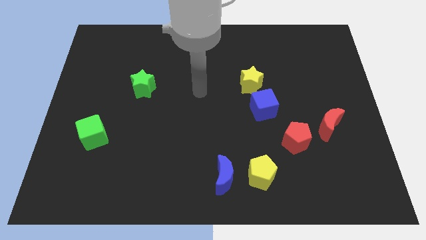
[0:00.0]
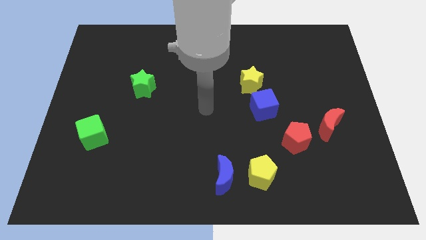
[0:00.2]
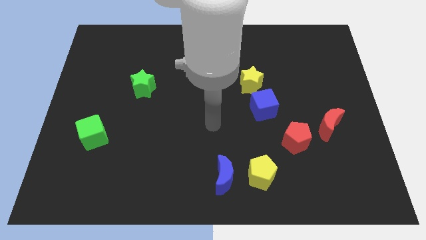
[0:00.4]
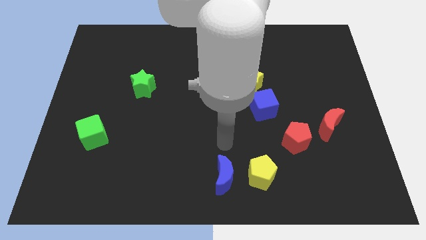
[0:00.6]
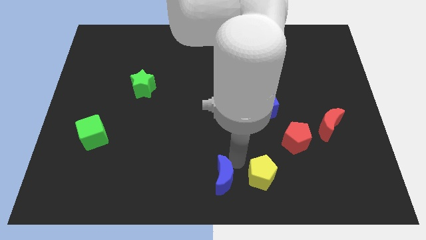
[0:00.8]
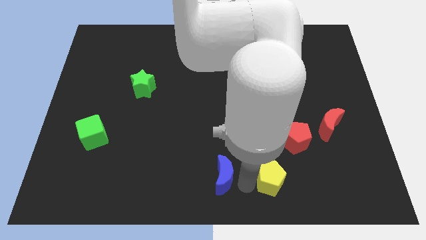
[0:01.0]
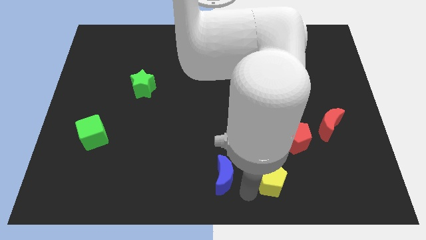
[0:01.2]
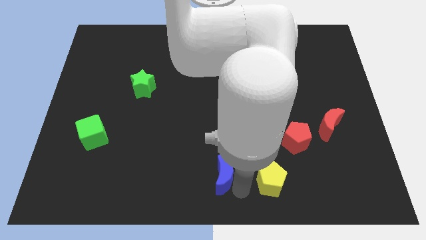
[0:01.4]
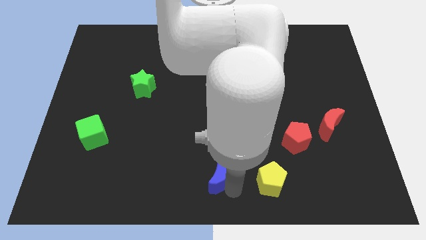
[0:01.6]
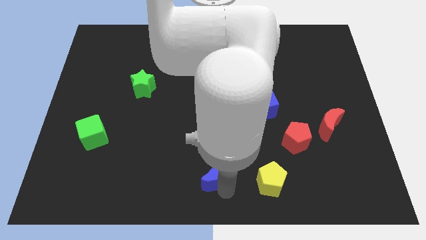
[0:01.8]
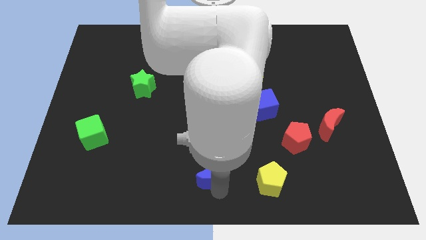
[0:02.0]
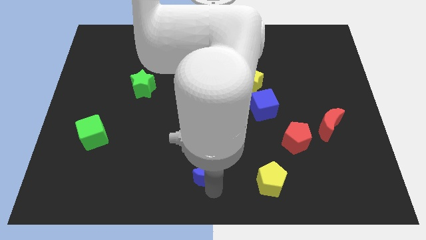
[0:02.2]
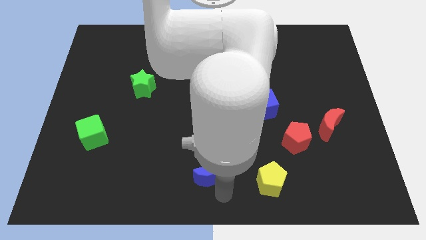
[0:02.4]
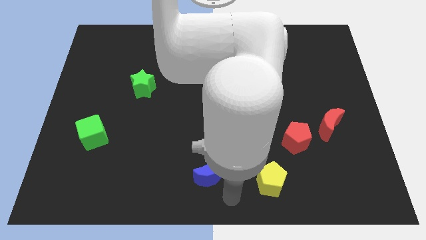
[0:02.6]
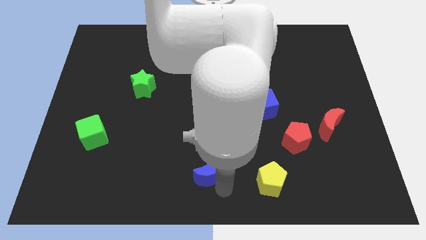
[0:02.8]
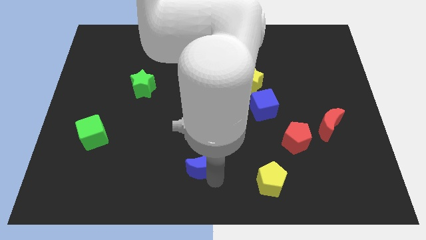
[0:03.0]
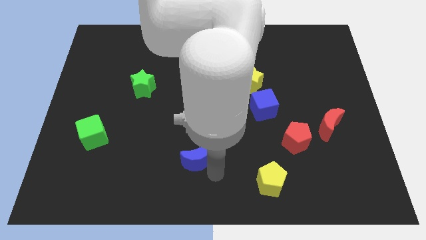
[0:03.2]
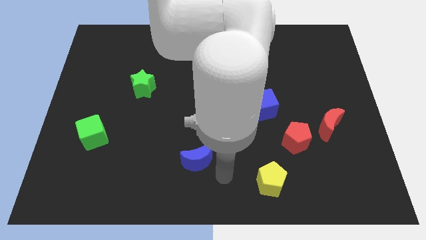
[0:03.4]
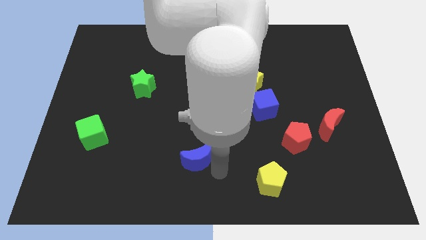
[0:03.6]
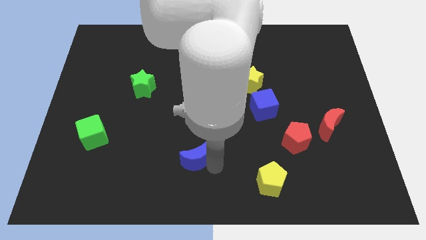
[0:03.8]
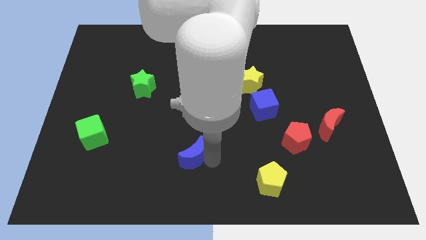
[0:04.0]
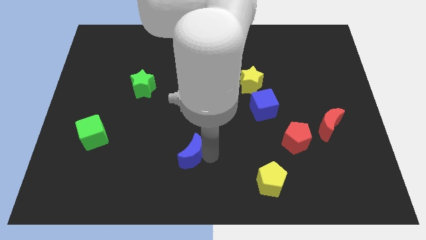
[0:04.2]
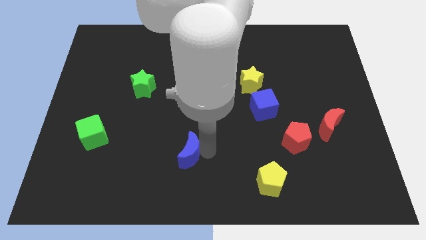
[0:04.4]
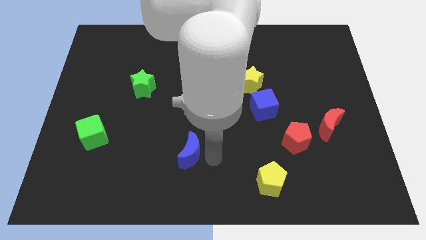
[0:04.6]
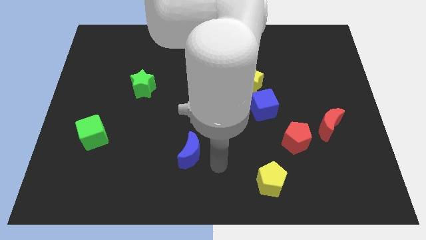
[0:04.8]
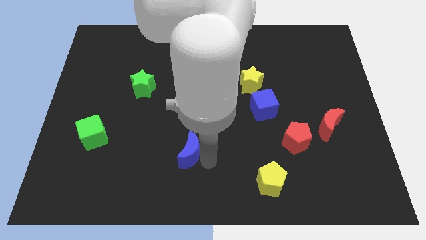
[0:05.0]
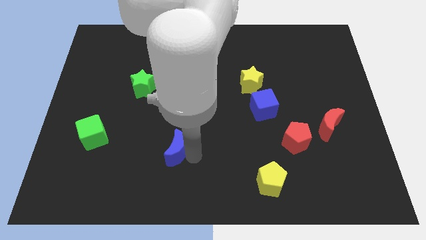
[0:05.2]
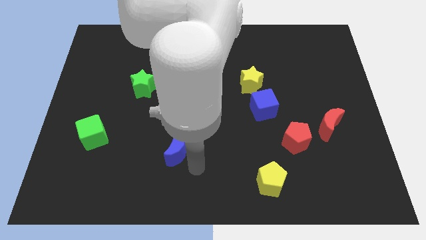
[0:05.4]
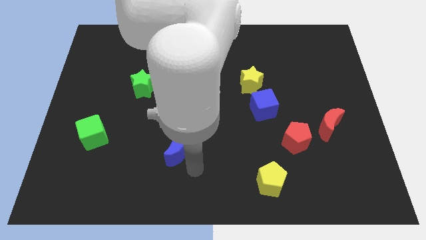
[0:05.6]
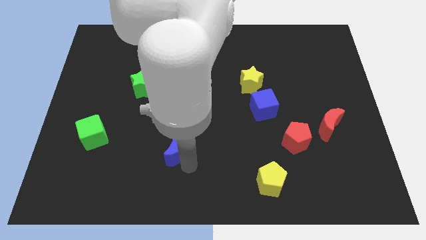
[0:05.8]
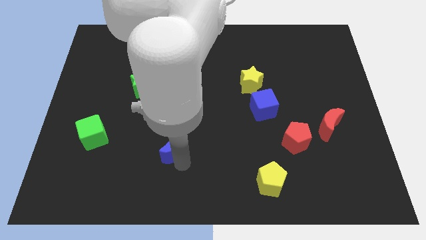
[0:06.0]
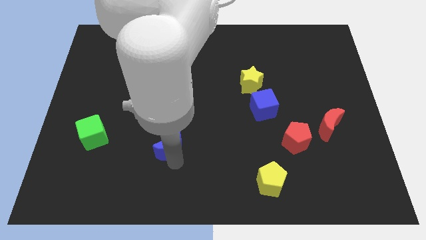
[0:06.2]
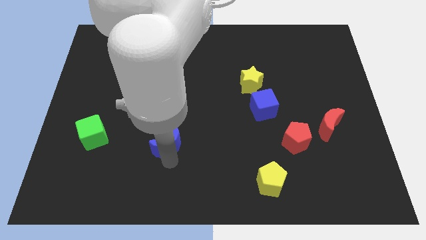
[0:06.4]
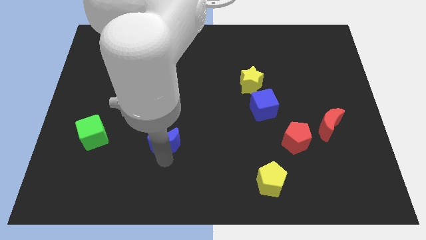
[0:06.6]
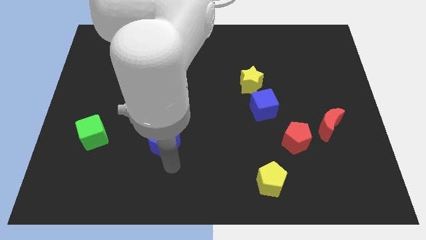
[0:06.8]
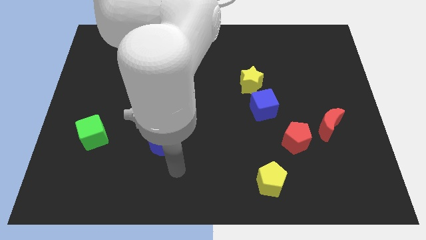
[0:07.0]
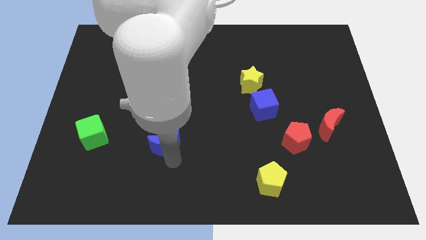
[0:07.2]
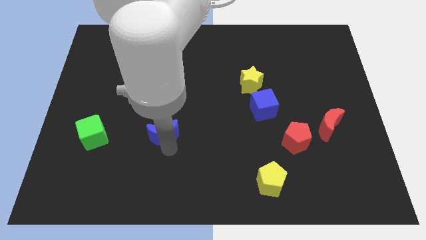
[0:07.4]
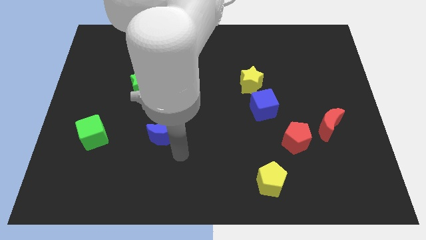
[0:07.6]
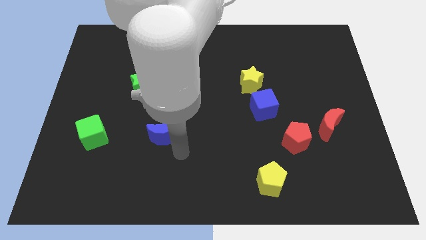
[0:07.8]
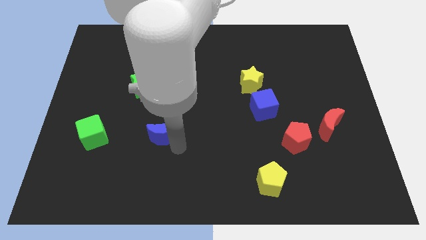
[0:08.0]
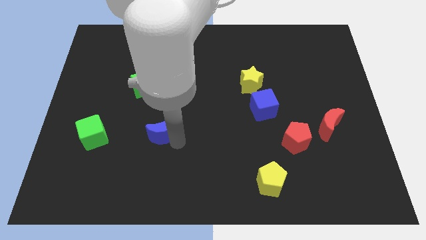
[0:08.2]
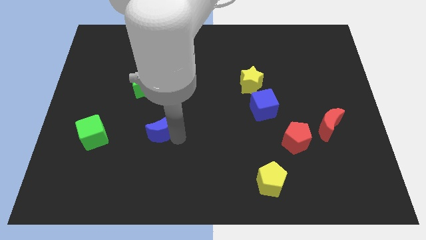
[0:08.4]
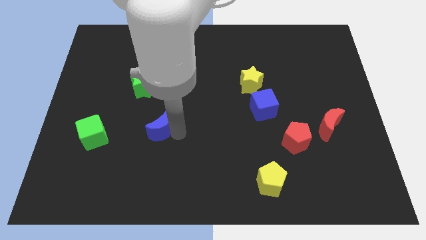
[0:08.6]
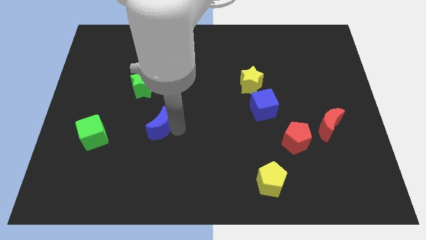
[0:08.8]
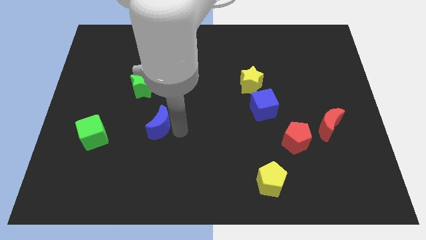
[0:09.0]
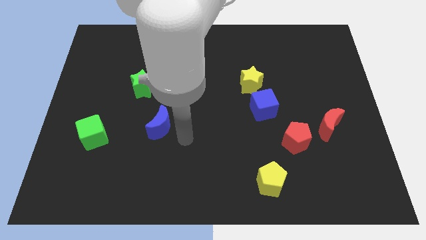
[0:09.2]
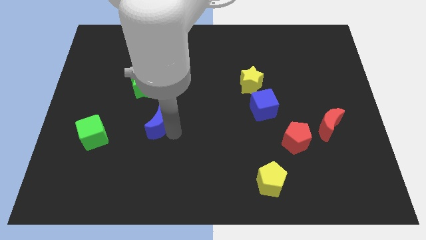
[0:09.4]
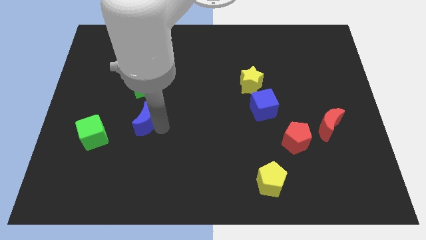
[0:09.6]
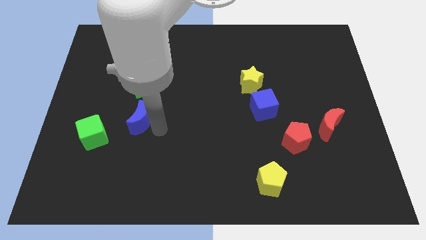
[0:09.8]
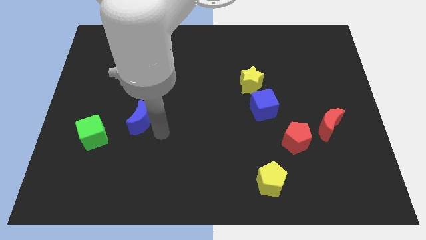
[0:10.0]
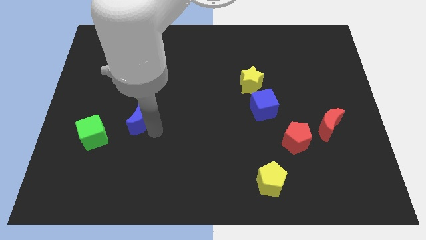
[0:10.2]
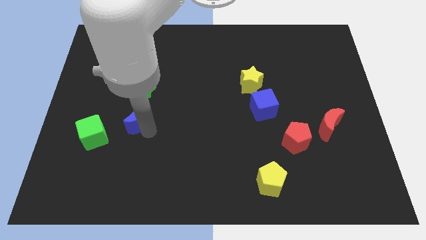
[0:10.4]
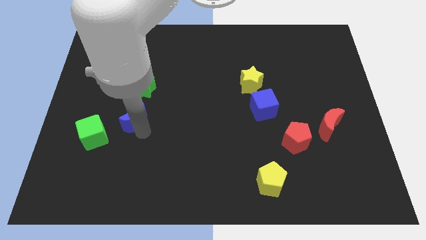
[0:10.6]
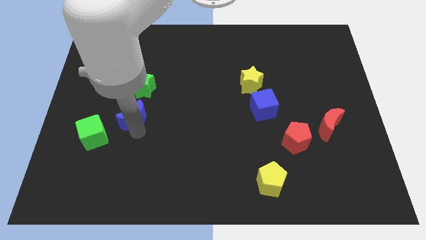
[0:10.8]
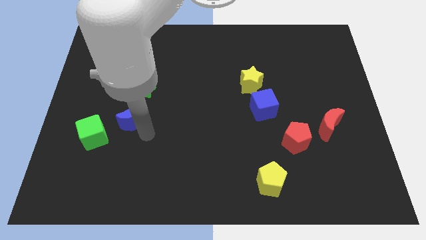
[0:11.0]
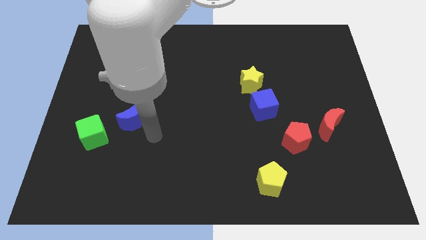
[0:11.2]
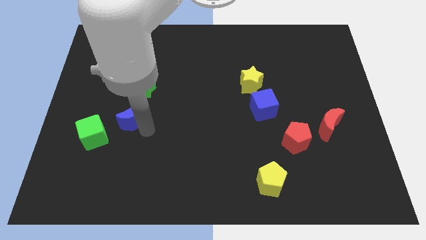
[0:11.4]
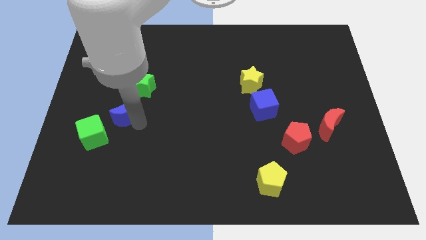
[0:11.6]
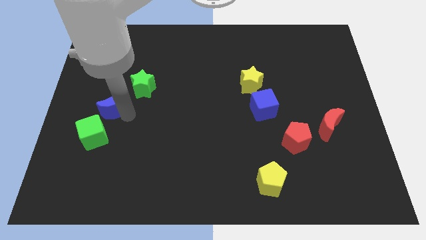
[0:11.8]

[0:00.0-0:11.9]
move the blue moon to the top of the green cube

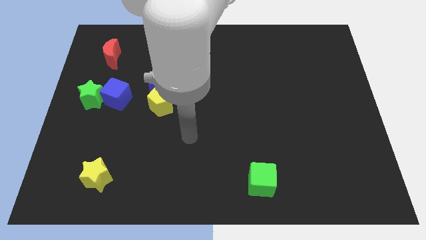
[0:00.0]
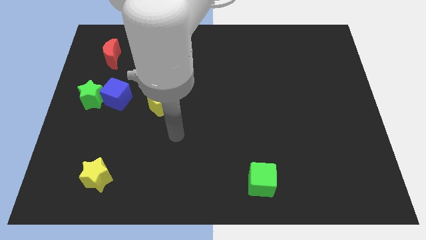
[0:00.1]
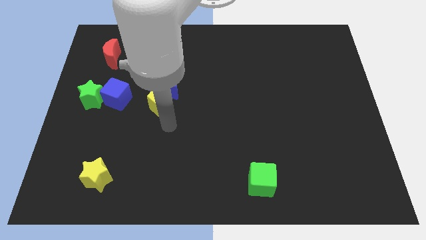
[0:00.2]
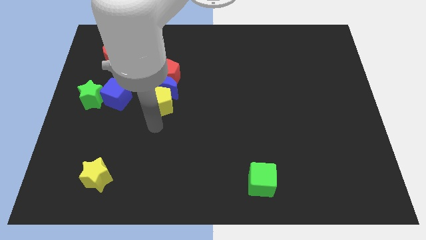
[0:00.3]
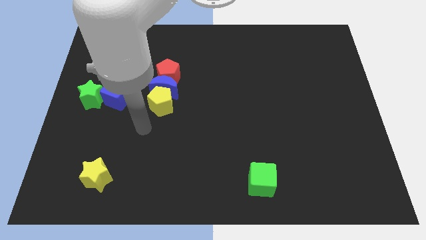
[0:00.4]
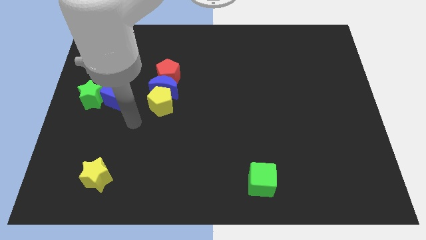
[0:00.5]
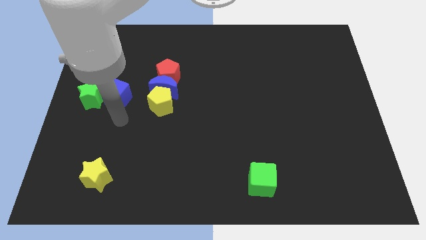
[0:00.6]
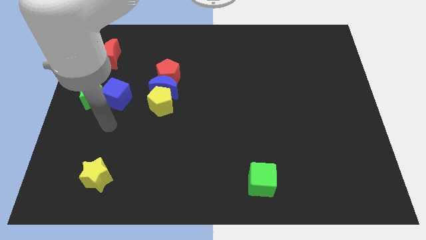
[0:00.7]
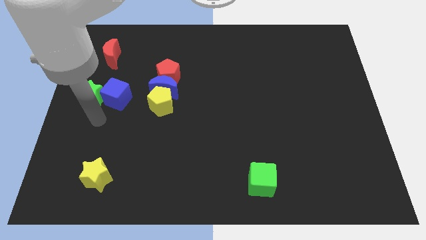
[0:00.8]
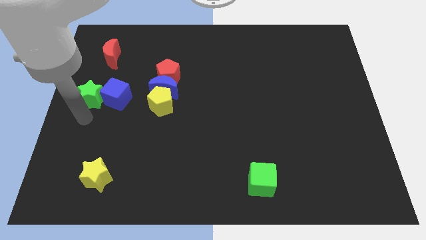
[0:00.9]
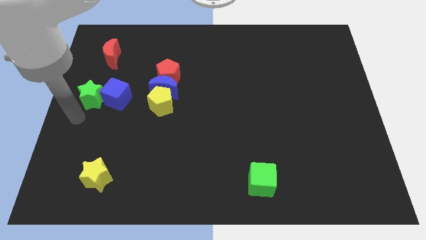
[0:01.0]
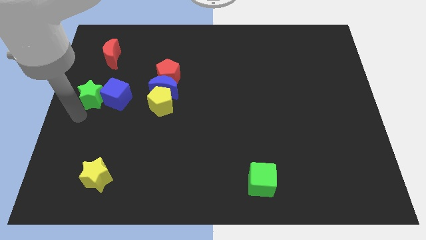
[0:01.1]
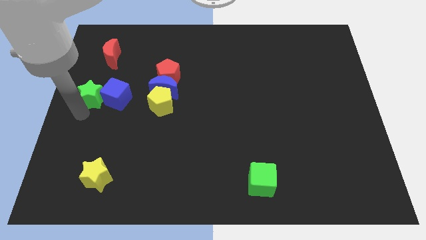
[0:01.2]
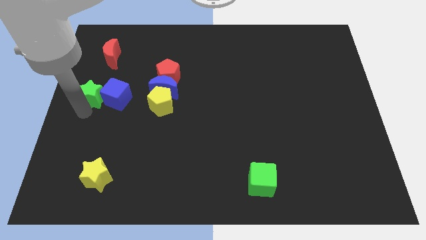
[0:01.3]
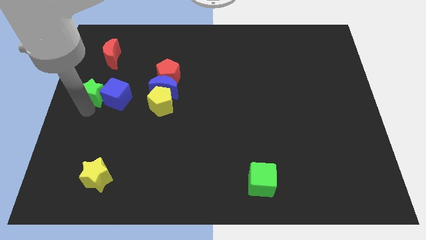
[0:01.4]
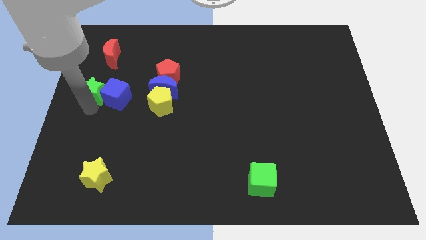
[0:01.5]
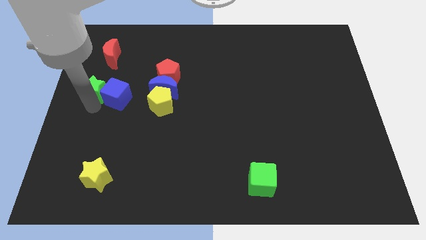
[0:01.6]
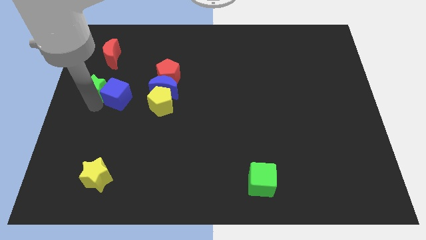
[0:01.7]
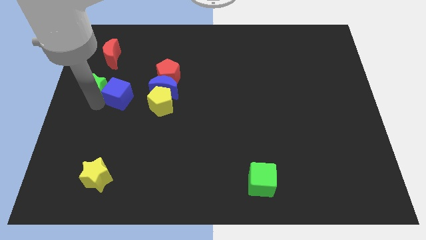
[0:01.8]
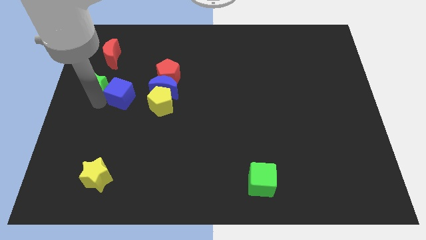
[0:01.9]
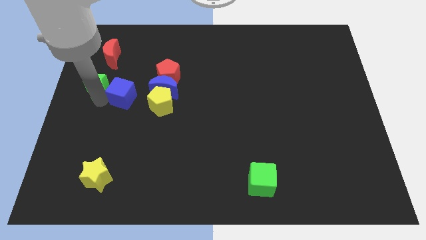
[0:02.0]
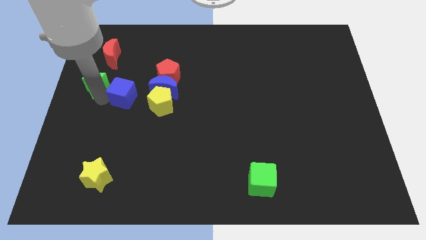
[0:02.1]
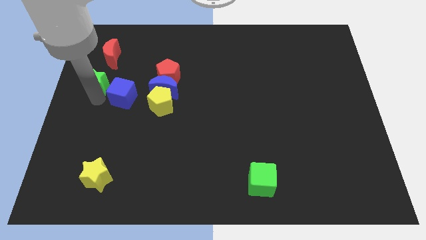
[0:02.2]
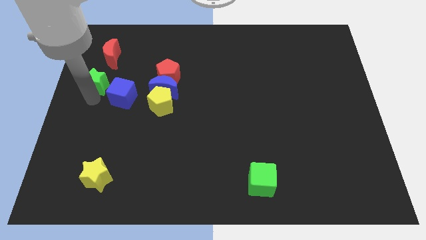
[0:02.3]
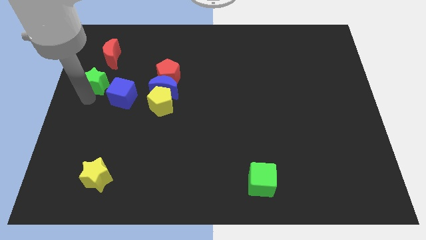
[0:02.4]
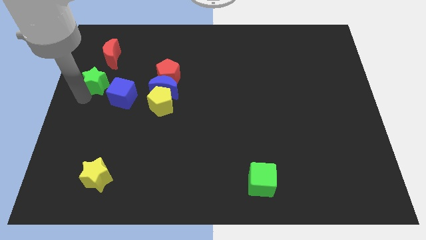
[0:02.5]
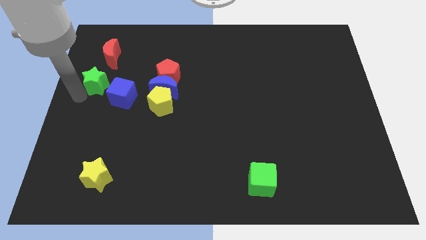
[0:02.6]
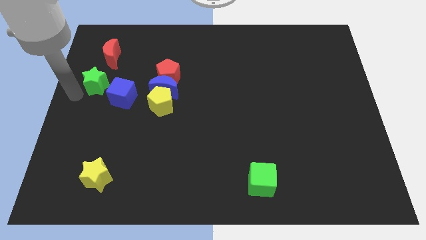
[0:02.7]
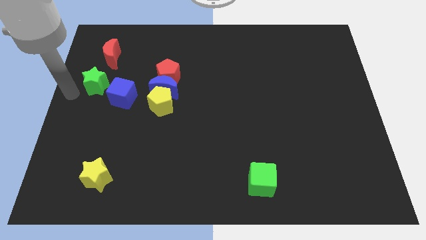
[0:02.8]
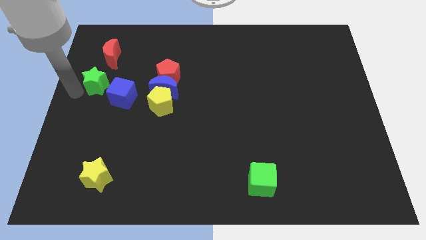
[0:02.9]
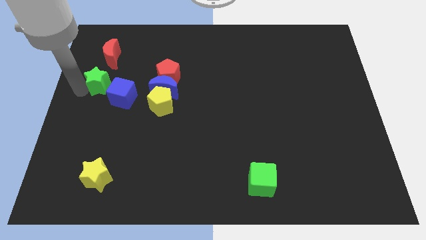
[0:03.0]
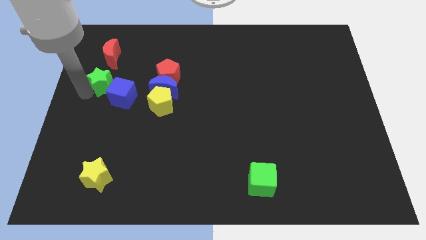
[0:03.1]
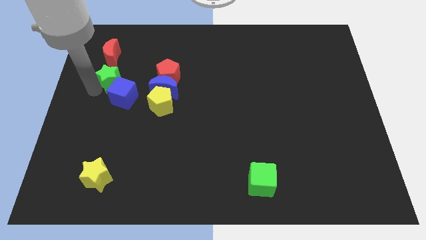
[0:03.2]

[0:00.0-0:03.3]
slide the green star to the top of the blue cube
